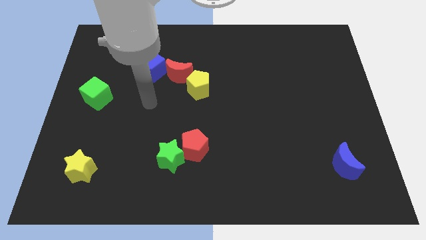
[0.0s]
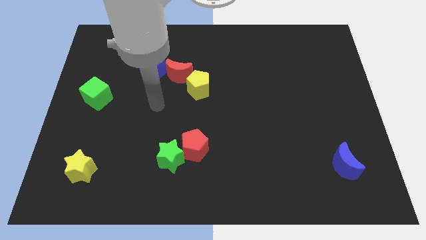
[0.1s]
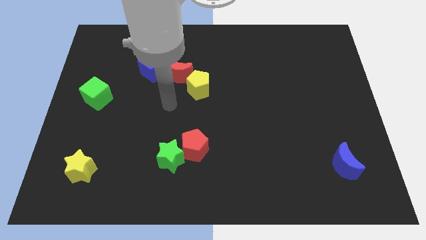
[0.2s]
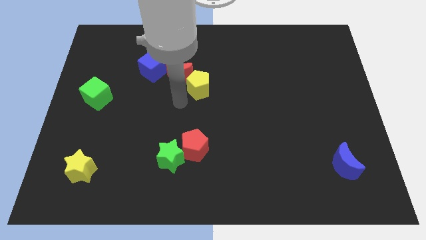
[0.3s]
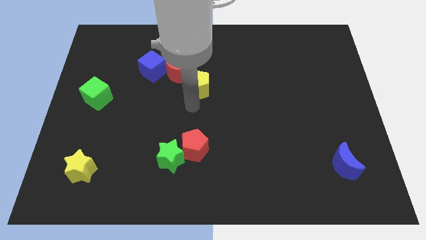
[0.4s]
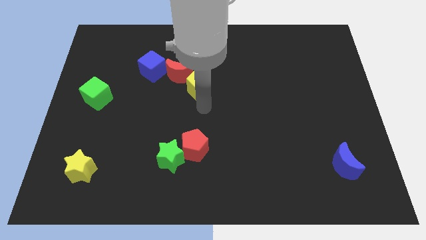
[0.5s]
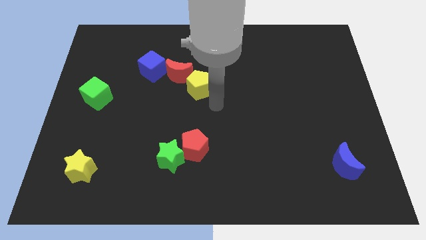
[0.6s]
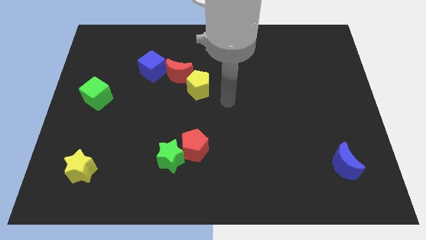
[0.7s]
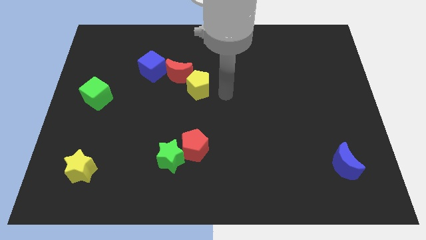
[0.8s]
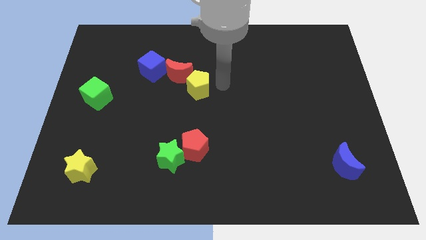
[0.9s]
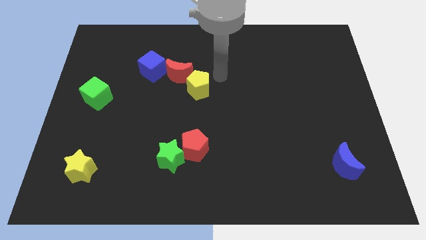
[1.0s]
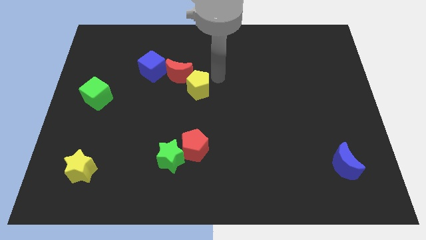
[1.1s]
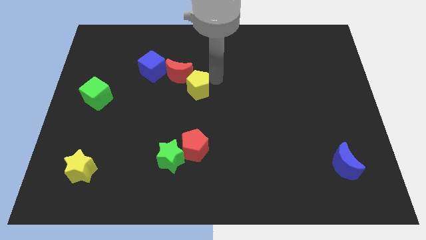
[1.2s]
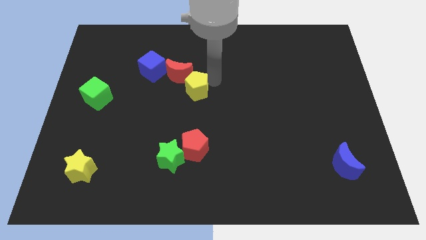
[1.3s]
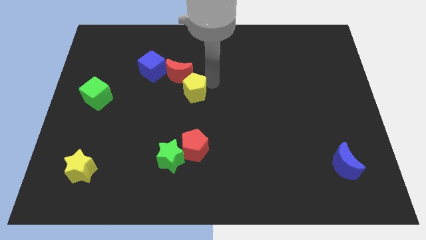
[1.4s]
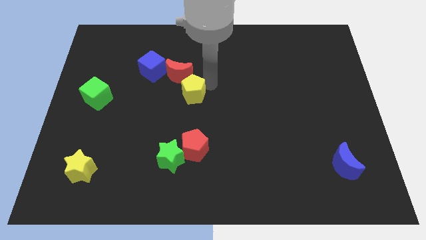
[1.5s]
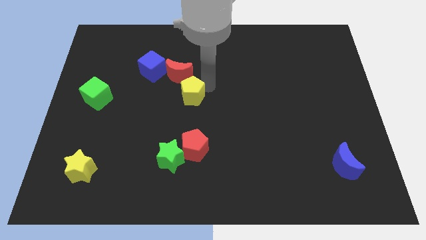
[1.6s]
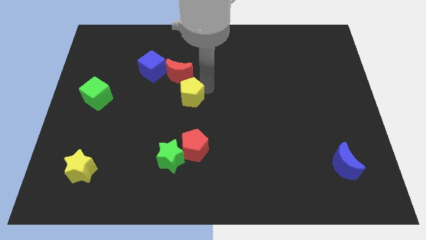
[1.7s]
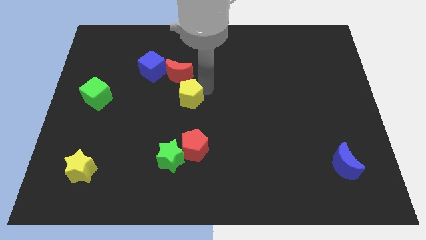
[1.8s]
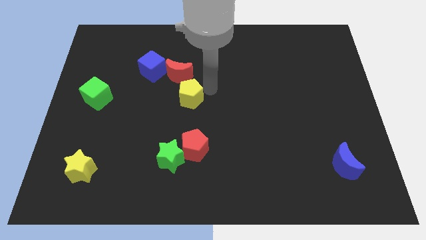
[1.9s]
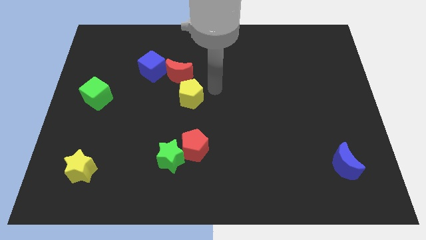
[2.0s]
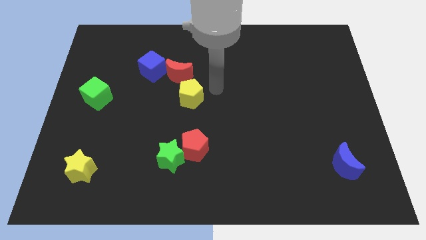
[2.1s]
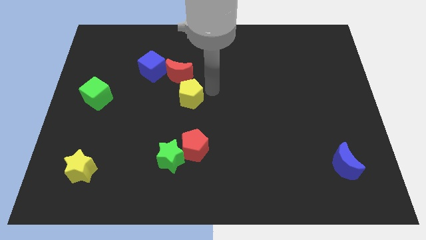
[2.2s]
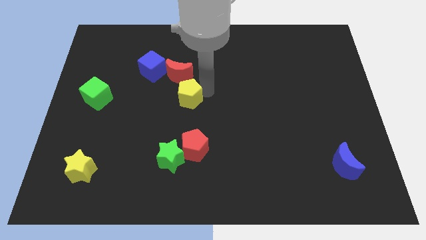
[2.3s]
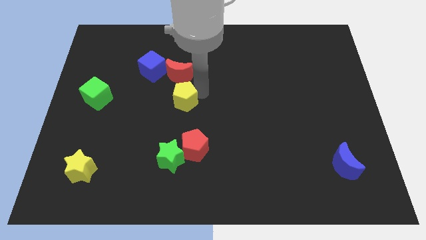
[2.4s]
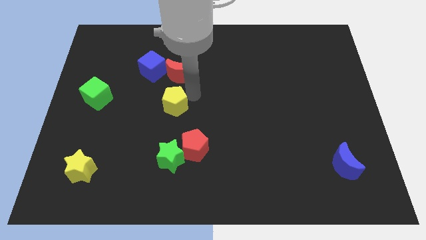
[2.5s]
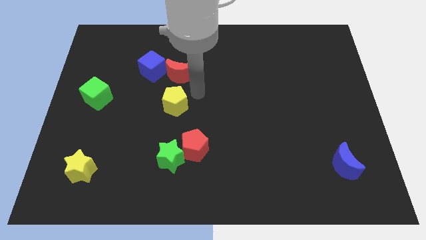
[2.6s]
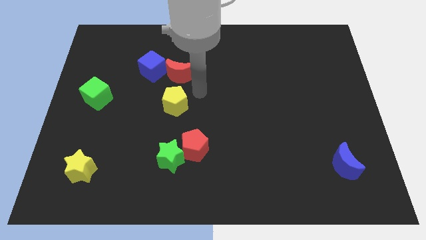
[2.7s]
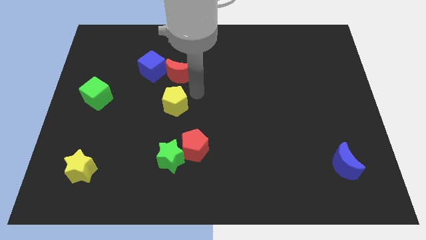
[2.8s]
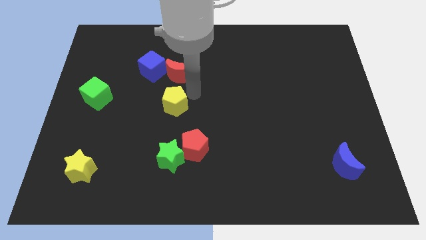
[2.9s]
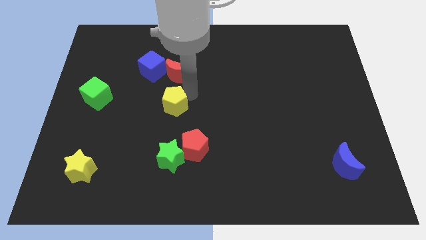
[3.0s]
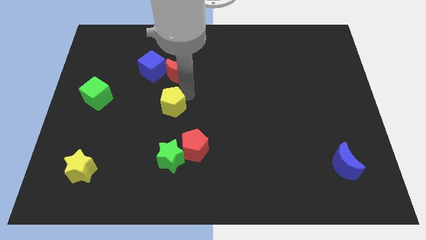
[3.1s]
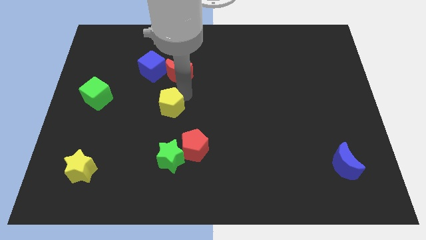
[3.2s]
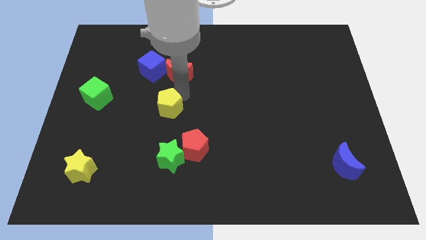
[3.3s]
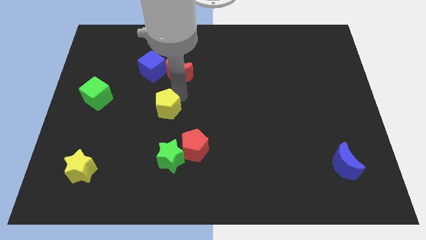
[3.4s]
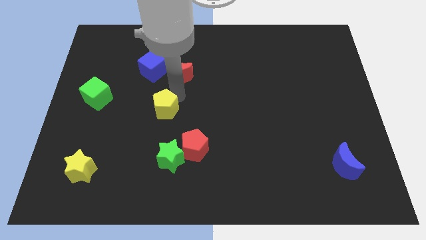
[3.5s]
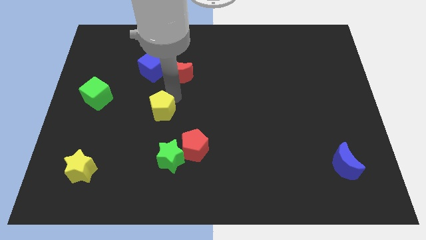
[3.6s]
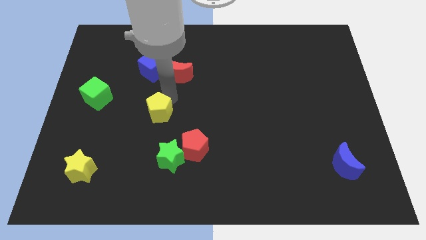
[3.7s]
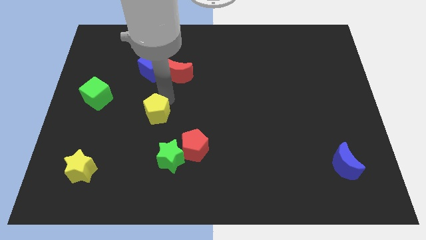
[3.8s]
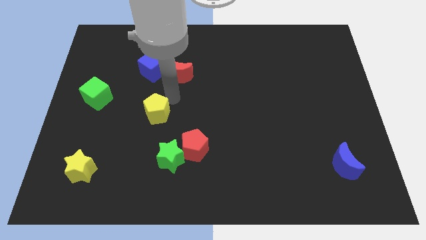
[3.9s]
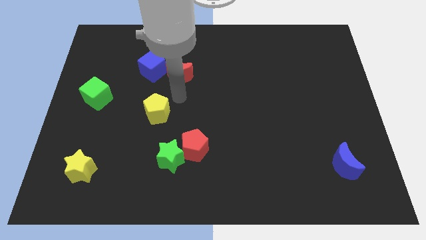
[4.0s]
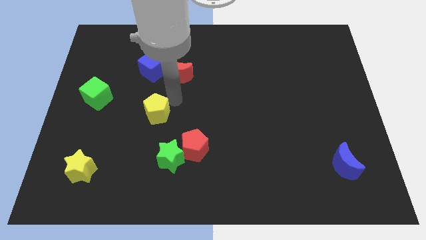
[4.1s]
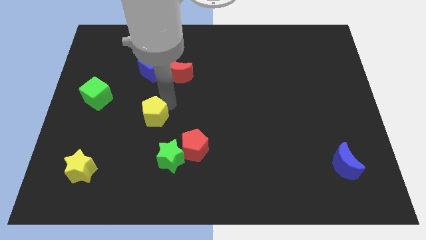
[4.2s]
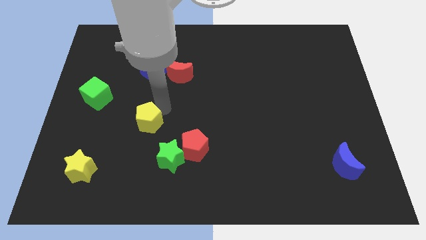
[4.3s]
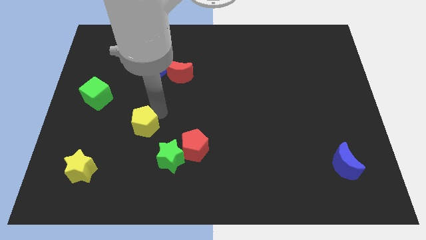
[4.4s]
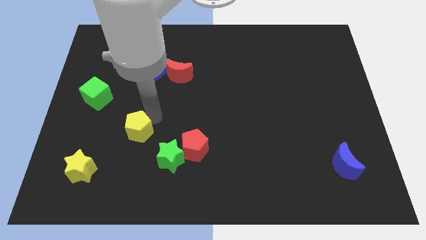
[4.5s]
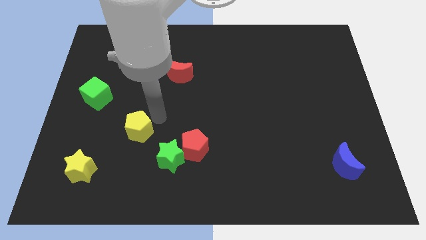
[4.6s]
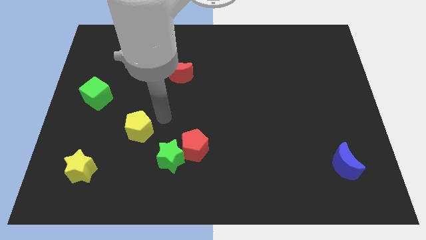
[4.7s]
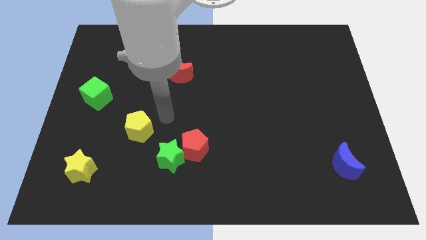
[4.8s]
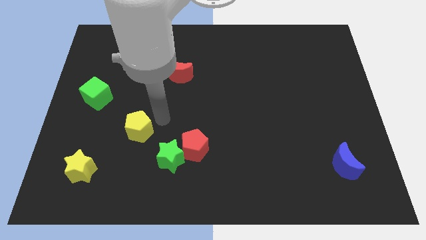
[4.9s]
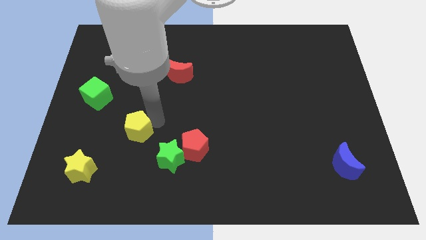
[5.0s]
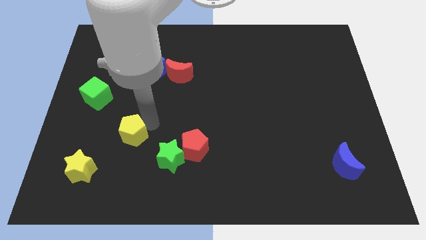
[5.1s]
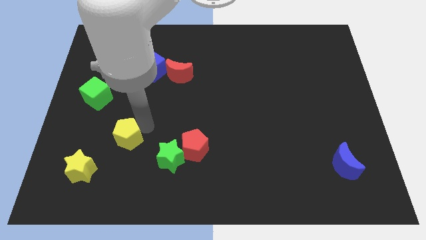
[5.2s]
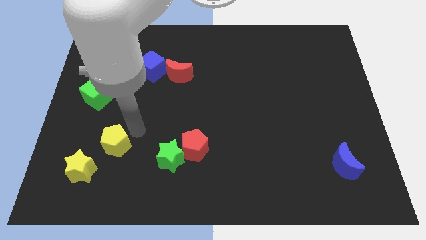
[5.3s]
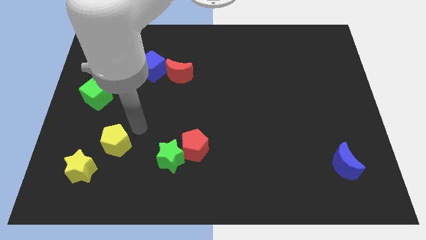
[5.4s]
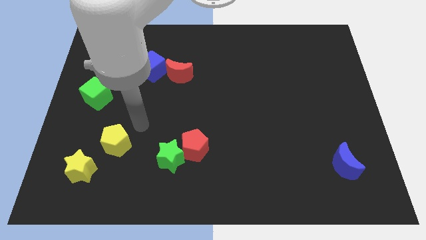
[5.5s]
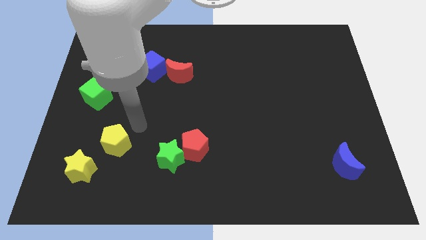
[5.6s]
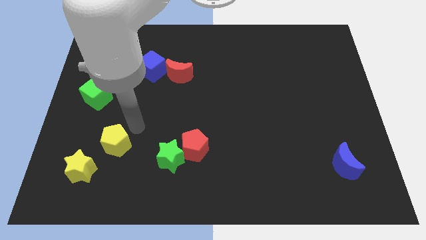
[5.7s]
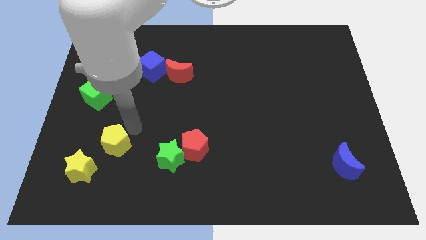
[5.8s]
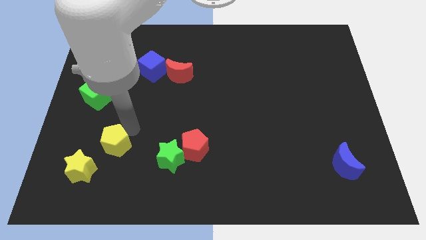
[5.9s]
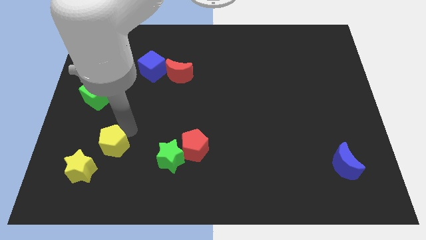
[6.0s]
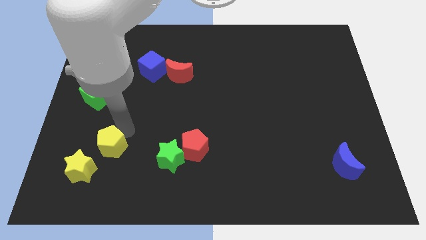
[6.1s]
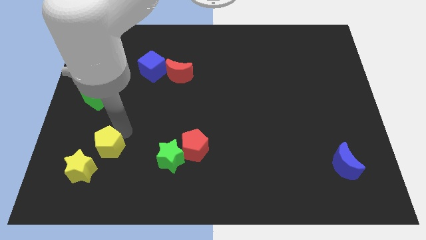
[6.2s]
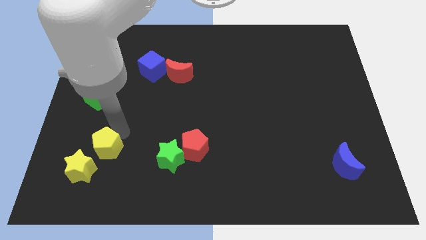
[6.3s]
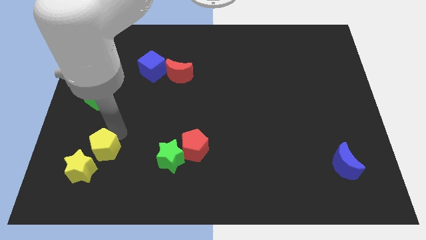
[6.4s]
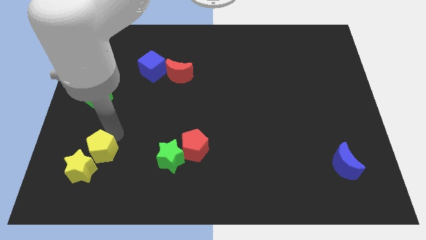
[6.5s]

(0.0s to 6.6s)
slide the yellow pentagon towards the yellow star
